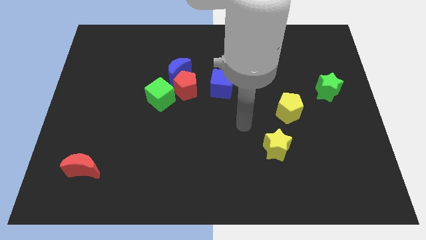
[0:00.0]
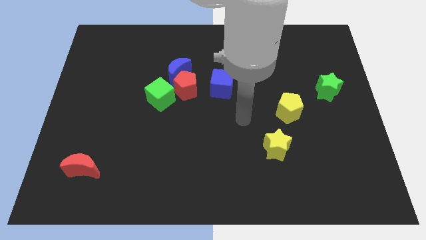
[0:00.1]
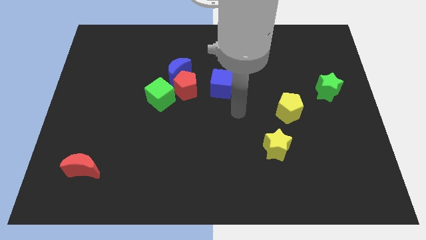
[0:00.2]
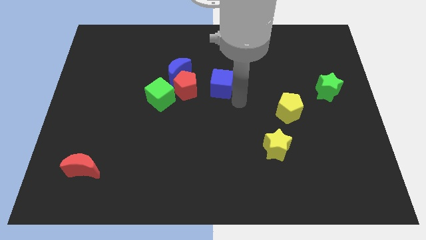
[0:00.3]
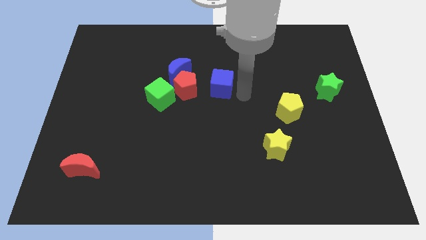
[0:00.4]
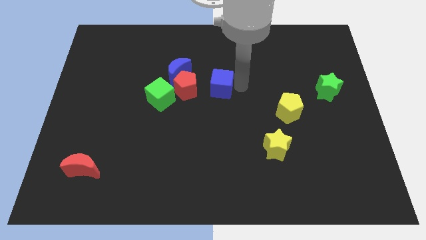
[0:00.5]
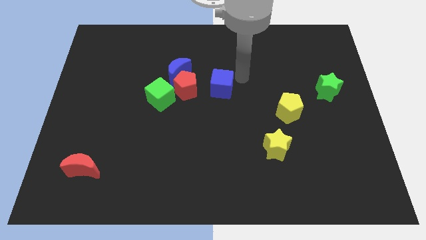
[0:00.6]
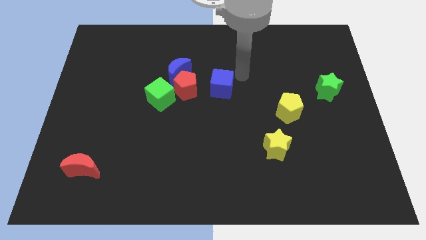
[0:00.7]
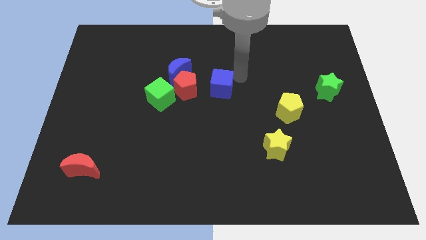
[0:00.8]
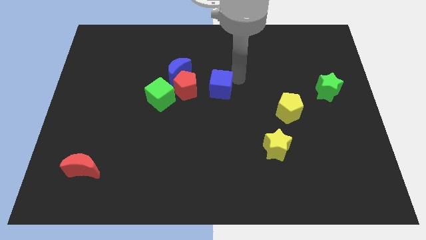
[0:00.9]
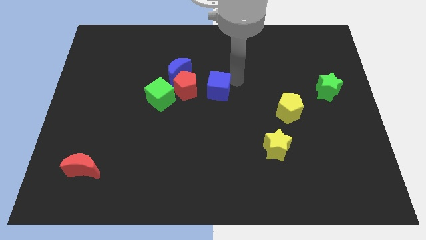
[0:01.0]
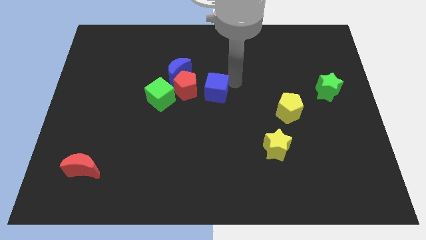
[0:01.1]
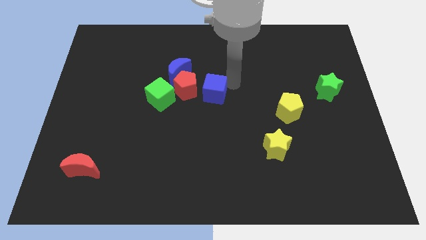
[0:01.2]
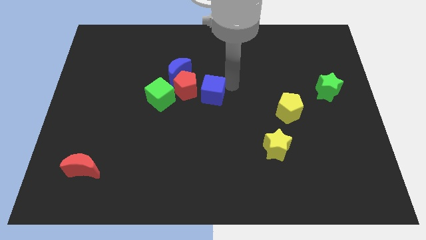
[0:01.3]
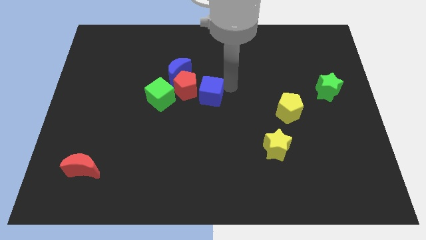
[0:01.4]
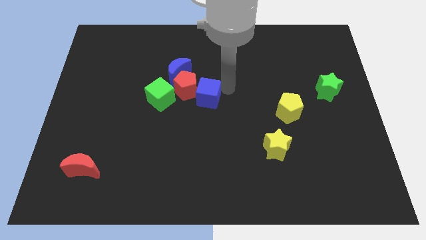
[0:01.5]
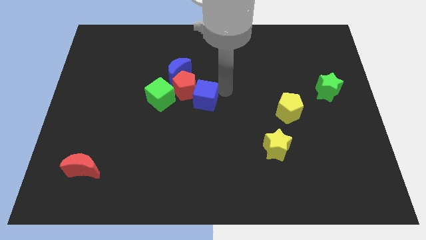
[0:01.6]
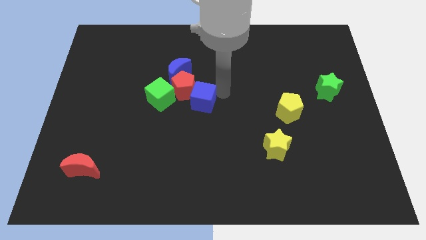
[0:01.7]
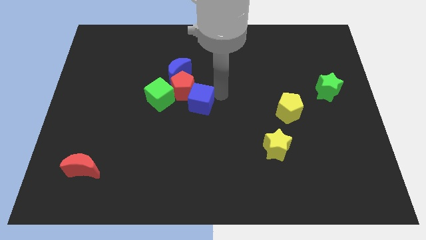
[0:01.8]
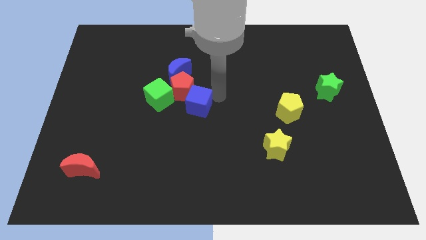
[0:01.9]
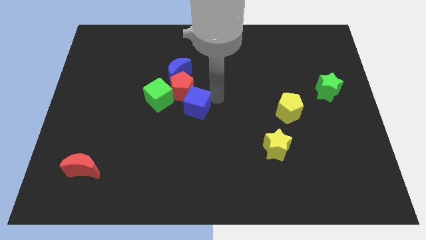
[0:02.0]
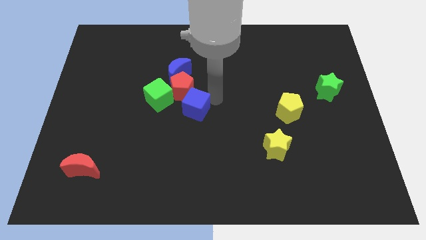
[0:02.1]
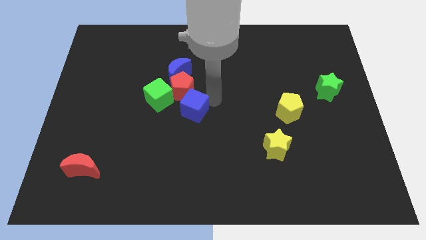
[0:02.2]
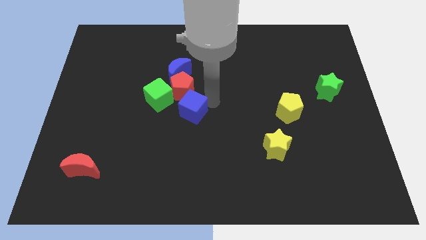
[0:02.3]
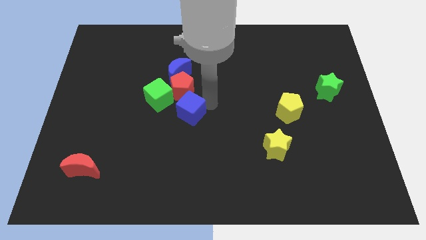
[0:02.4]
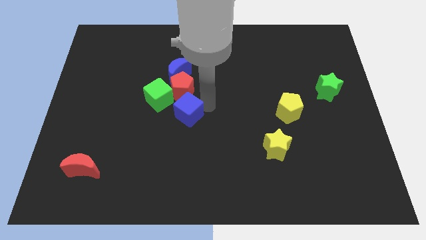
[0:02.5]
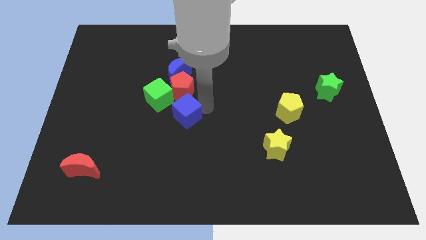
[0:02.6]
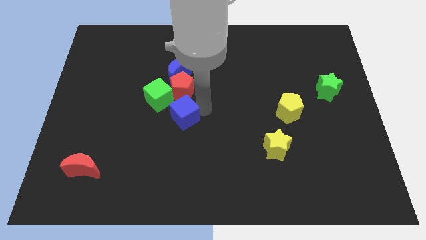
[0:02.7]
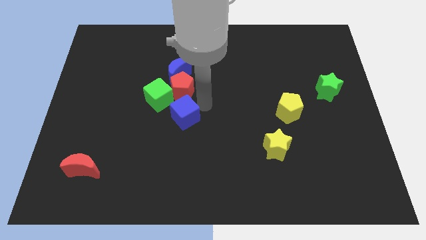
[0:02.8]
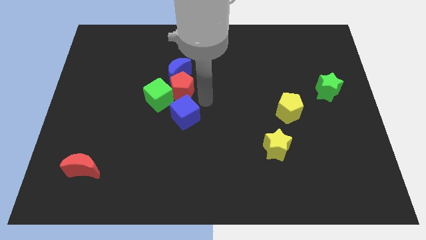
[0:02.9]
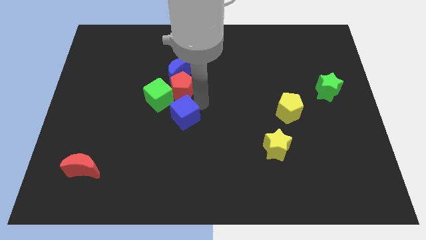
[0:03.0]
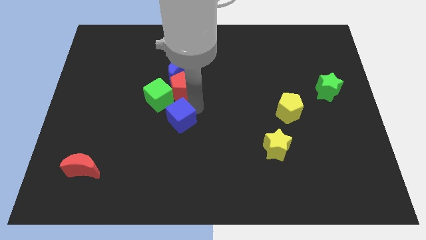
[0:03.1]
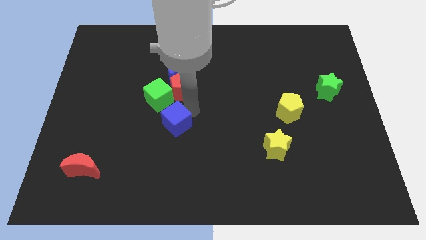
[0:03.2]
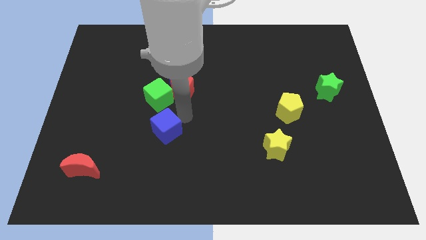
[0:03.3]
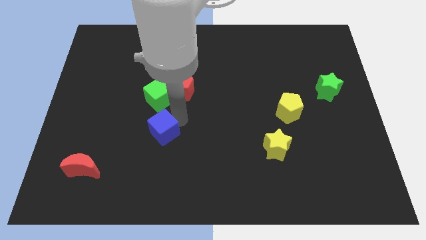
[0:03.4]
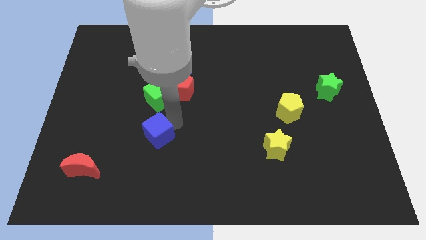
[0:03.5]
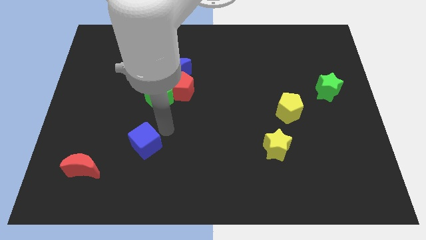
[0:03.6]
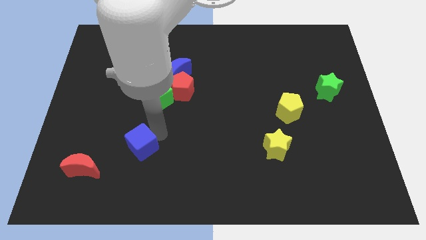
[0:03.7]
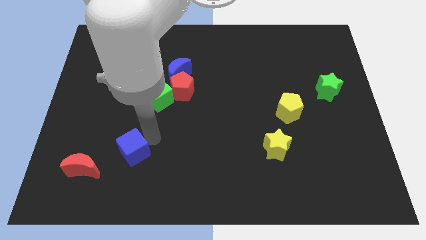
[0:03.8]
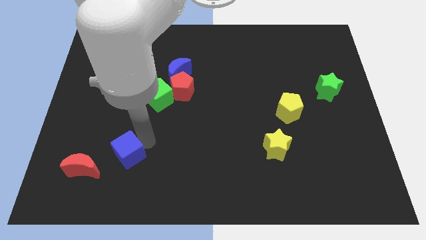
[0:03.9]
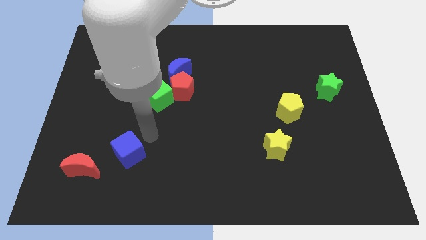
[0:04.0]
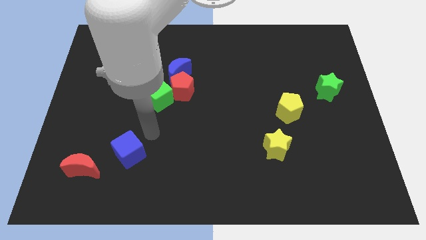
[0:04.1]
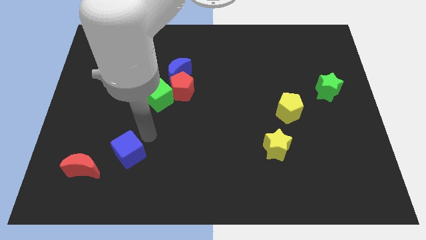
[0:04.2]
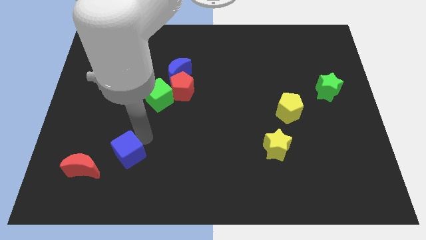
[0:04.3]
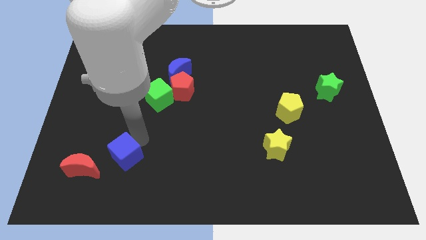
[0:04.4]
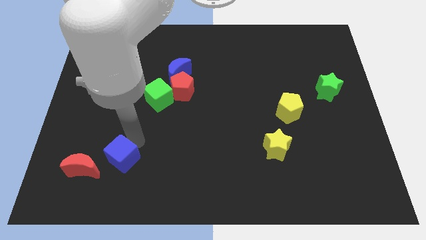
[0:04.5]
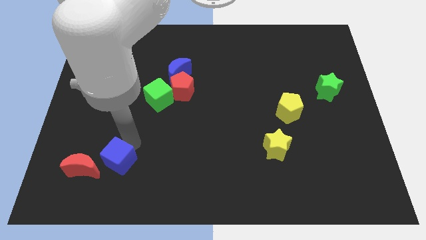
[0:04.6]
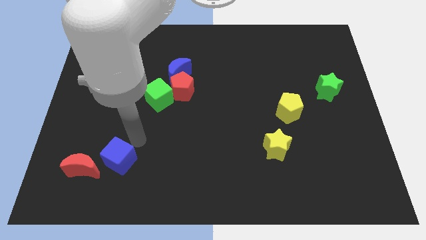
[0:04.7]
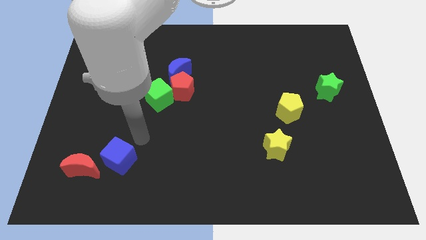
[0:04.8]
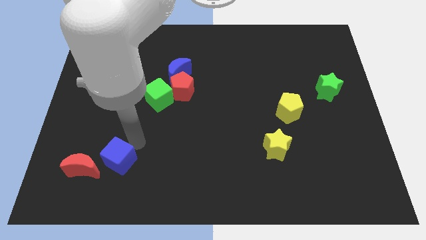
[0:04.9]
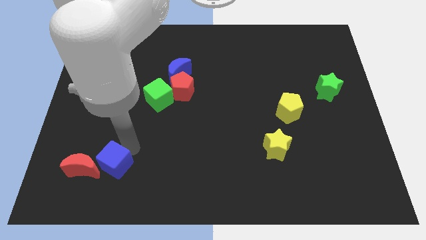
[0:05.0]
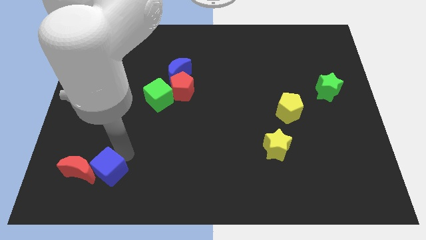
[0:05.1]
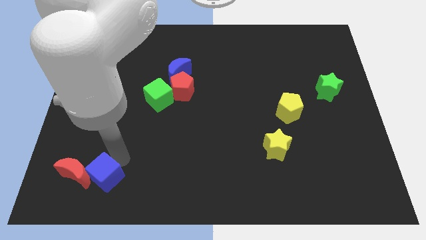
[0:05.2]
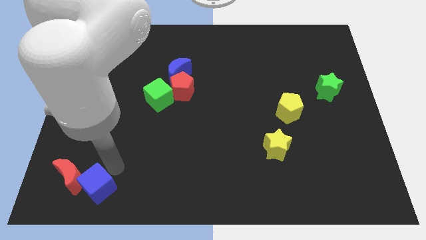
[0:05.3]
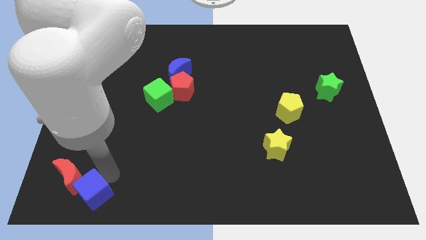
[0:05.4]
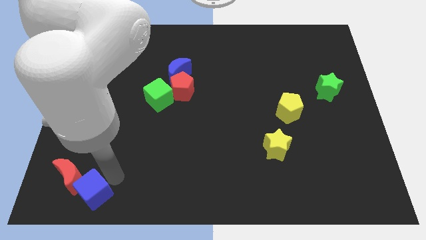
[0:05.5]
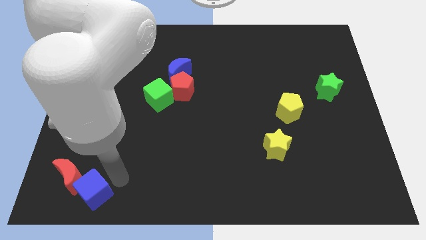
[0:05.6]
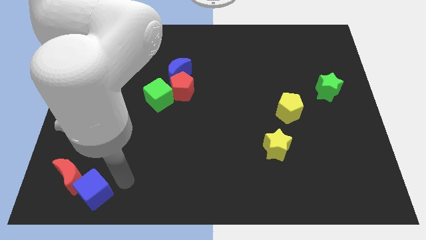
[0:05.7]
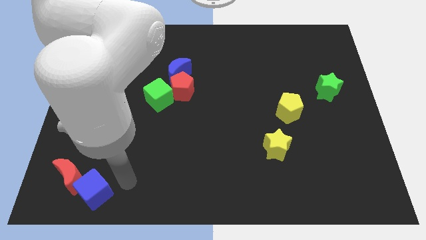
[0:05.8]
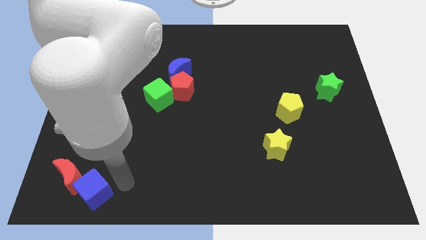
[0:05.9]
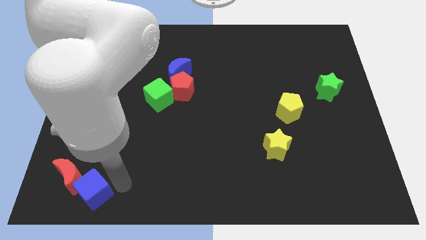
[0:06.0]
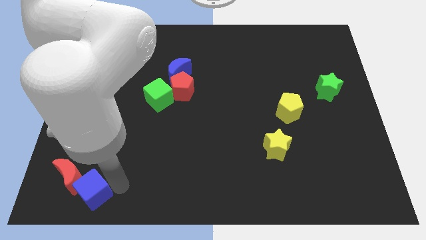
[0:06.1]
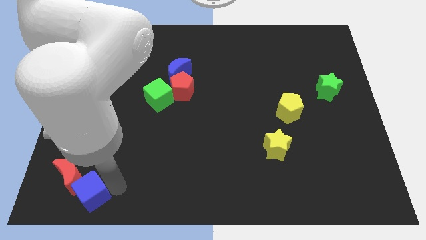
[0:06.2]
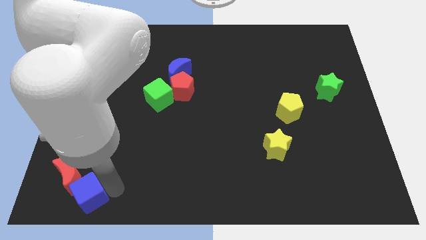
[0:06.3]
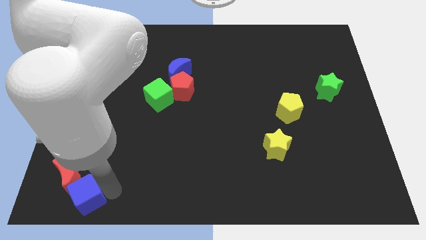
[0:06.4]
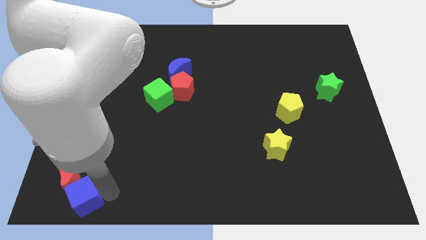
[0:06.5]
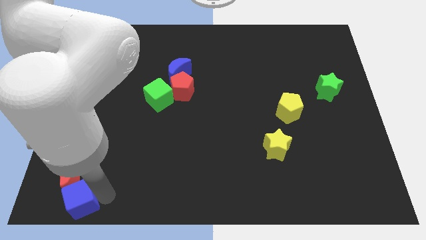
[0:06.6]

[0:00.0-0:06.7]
push the blue cube to the bottom left corner

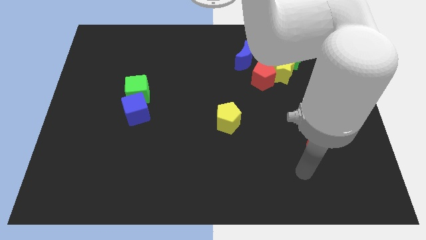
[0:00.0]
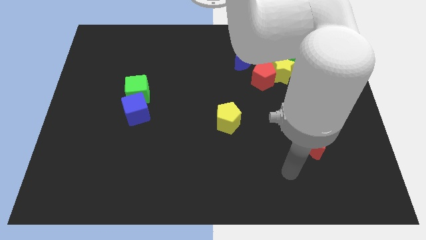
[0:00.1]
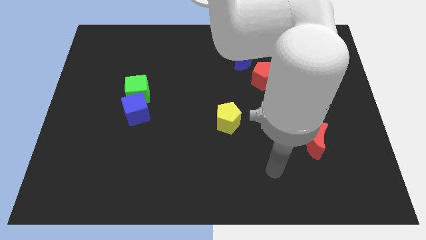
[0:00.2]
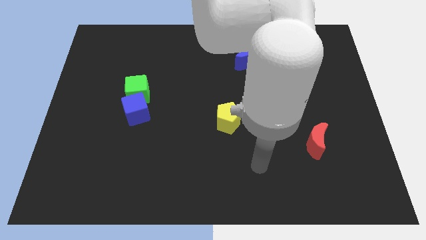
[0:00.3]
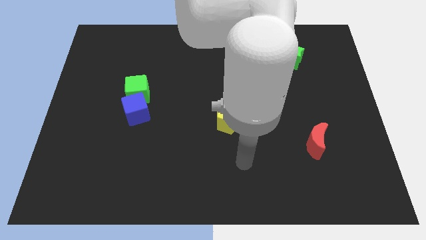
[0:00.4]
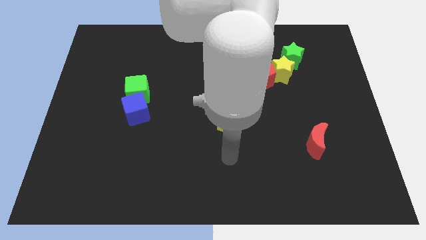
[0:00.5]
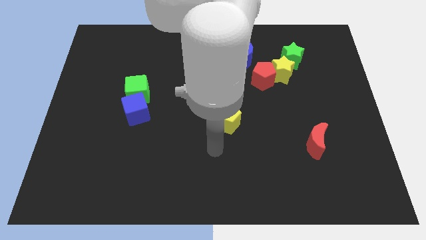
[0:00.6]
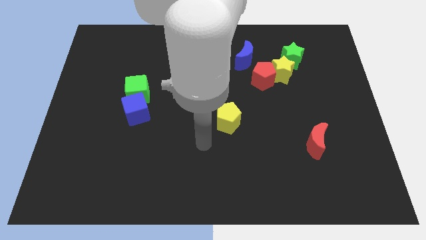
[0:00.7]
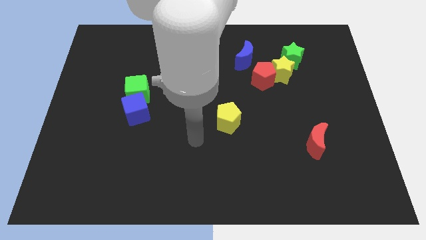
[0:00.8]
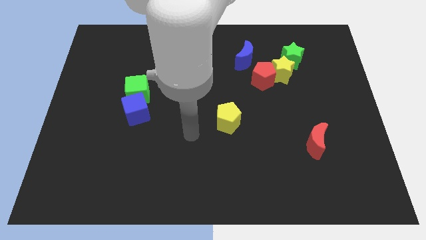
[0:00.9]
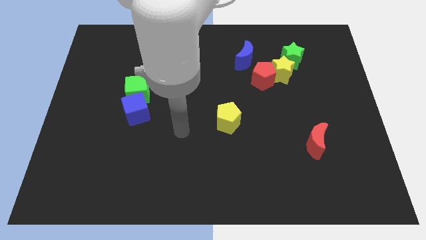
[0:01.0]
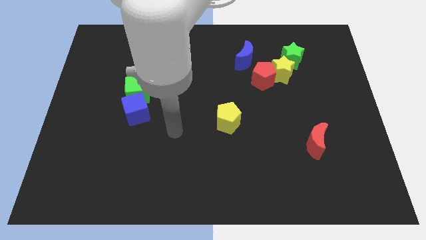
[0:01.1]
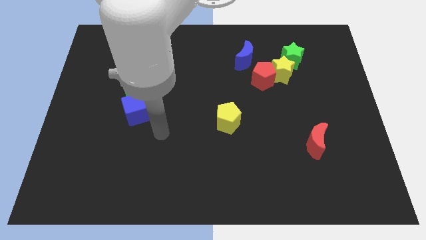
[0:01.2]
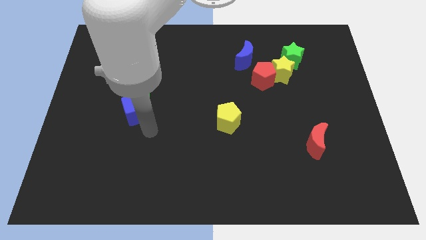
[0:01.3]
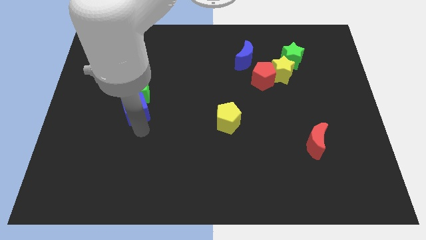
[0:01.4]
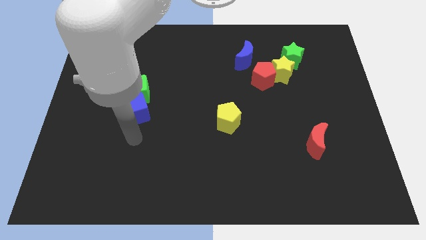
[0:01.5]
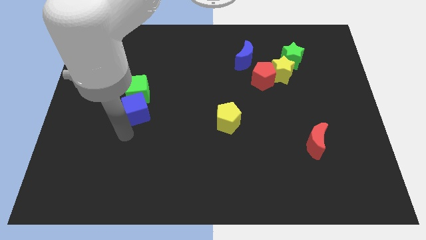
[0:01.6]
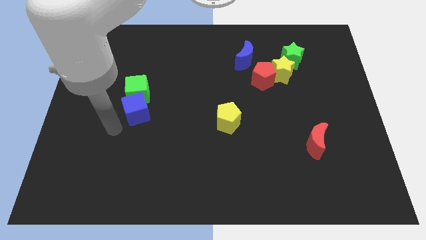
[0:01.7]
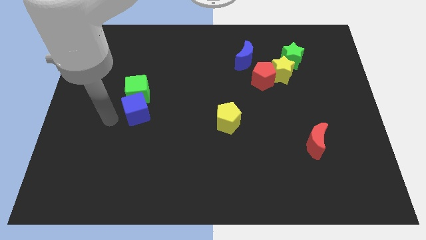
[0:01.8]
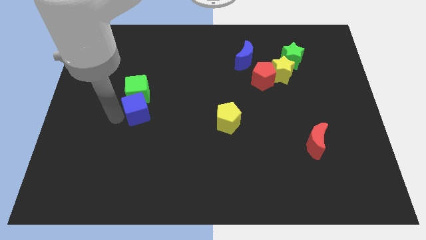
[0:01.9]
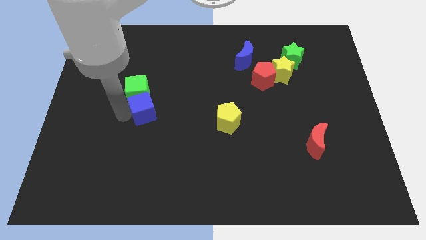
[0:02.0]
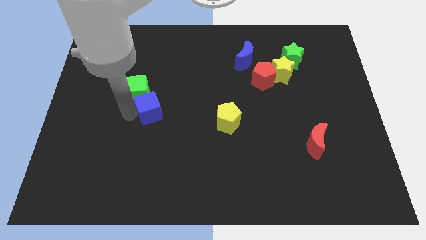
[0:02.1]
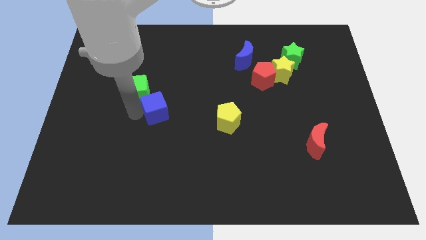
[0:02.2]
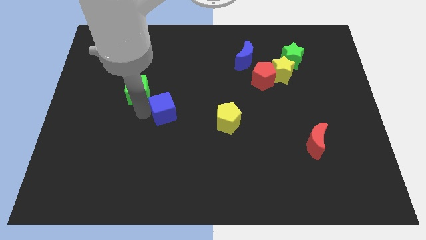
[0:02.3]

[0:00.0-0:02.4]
slide the blue cube to the center
